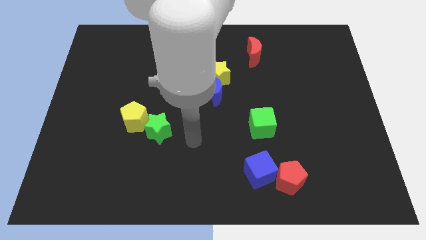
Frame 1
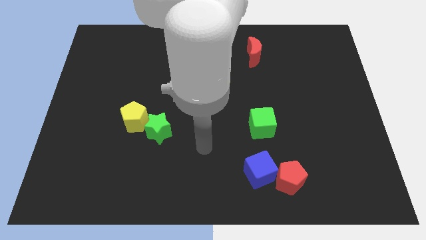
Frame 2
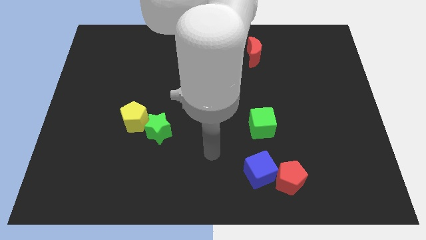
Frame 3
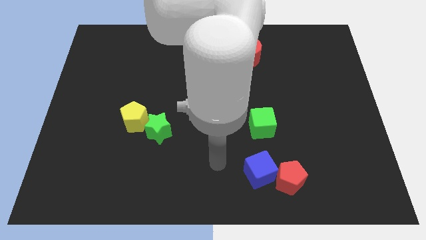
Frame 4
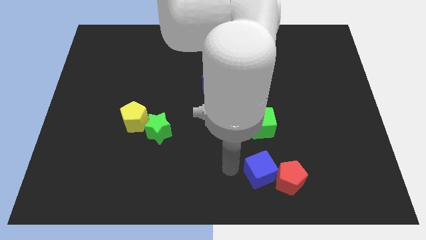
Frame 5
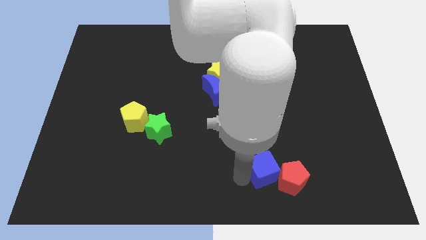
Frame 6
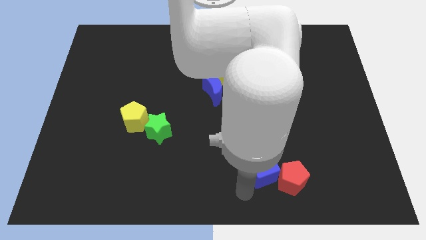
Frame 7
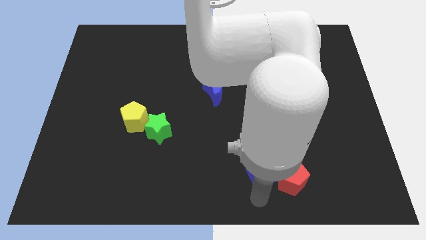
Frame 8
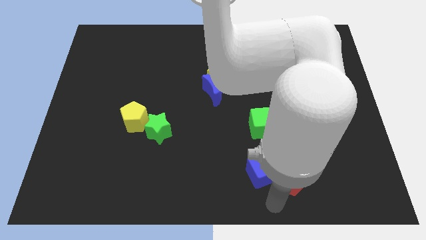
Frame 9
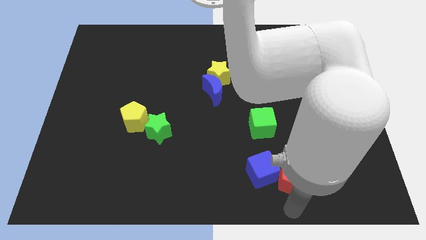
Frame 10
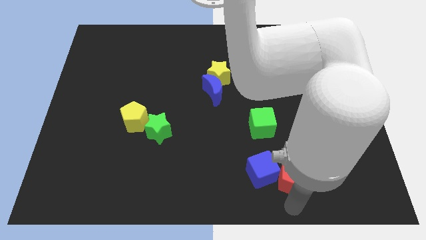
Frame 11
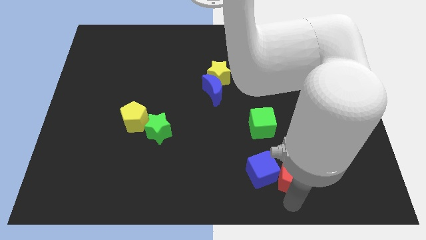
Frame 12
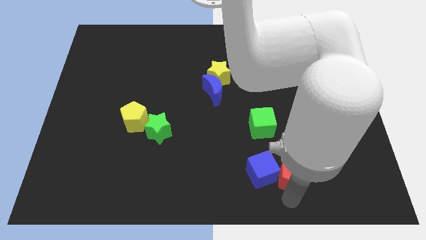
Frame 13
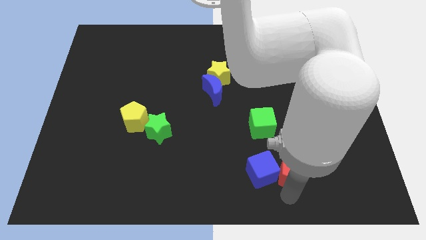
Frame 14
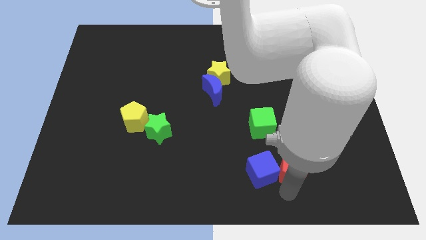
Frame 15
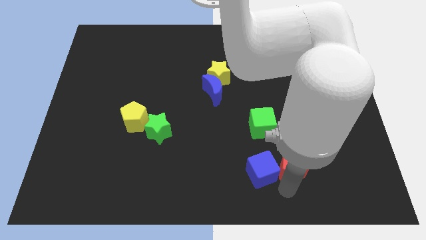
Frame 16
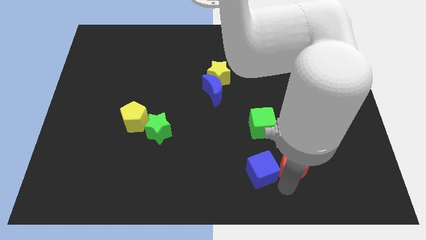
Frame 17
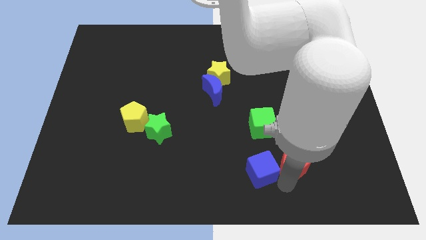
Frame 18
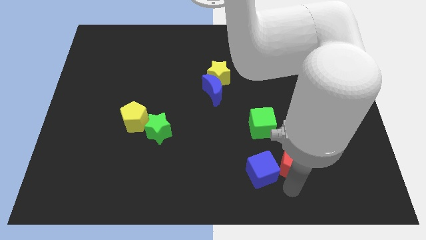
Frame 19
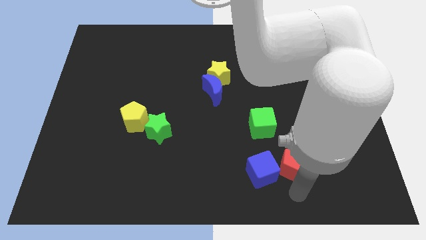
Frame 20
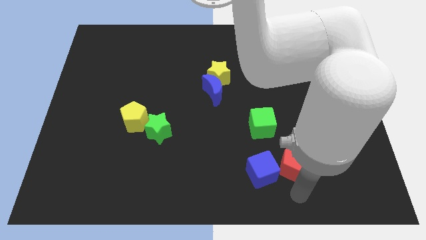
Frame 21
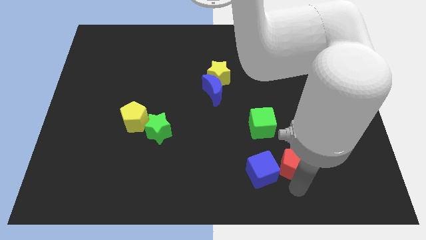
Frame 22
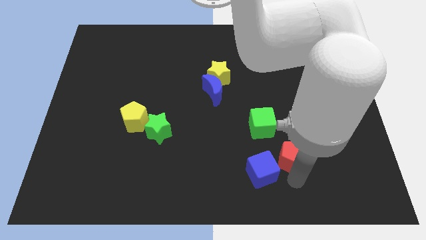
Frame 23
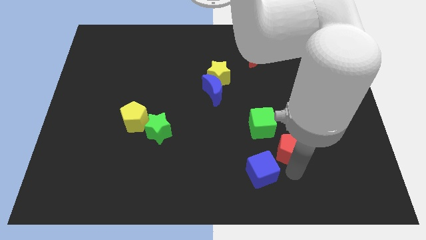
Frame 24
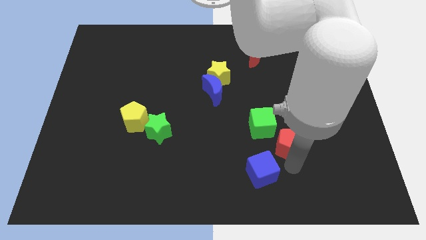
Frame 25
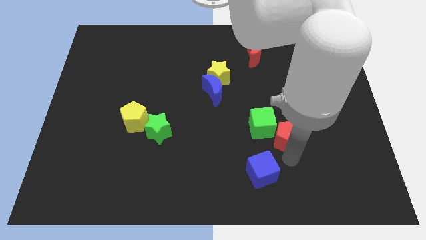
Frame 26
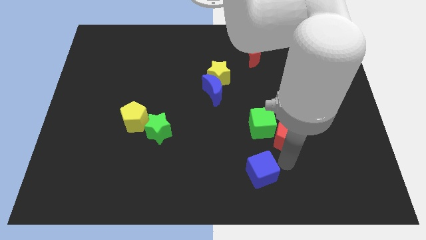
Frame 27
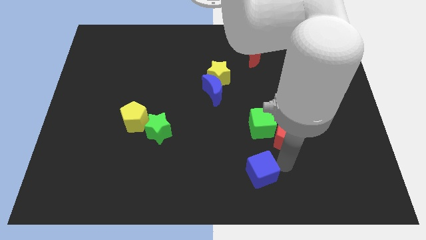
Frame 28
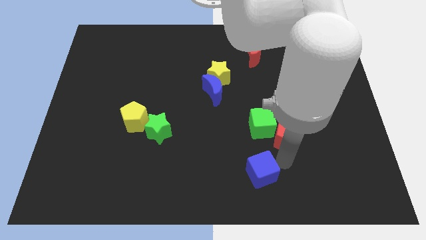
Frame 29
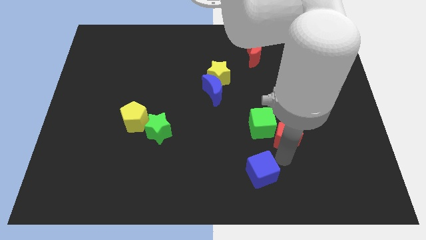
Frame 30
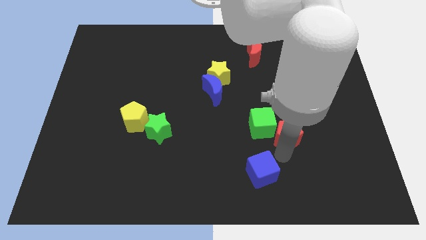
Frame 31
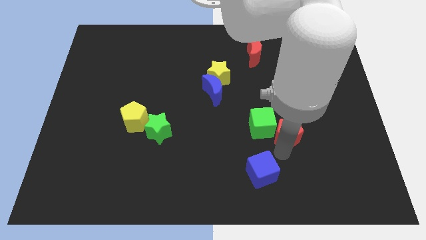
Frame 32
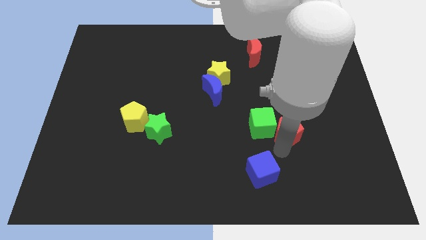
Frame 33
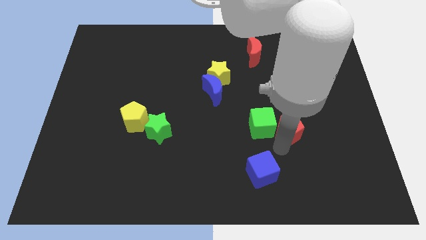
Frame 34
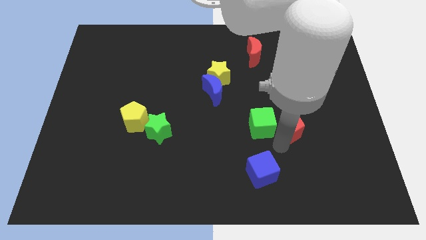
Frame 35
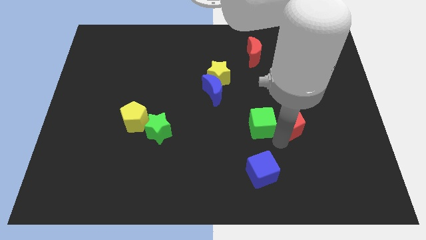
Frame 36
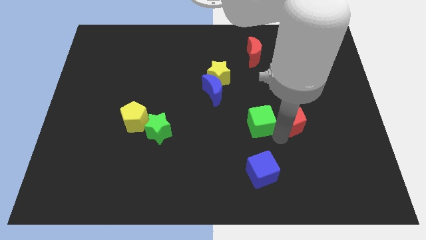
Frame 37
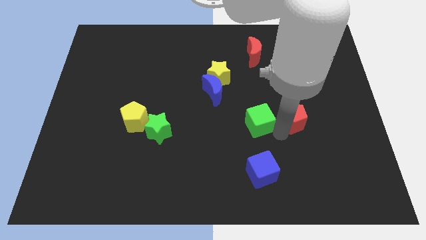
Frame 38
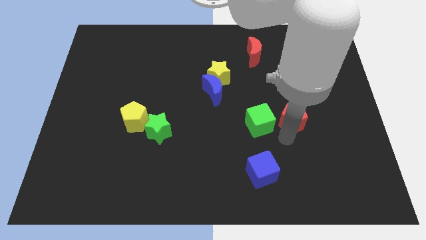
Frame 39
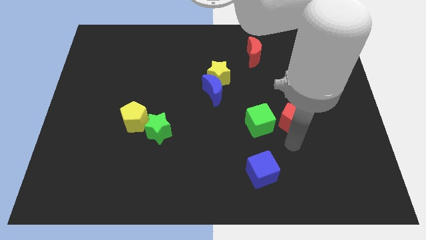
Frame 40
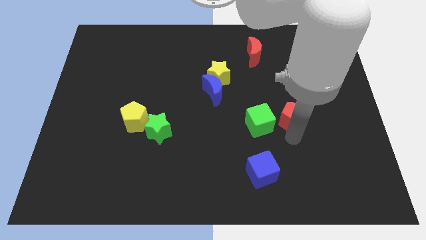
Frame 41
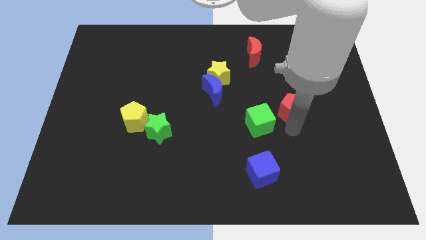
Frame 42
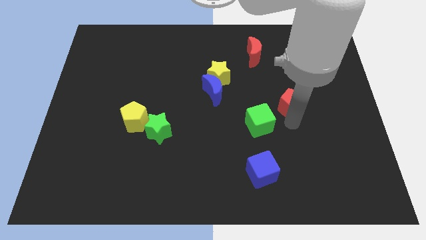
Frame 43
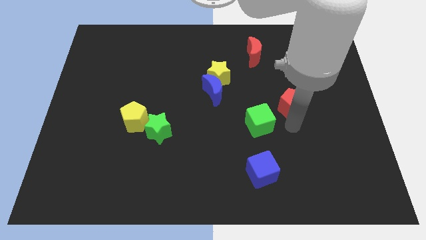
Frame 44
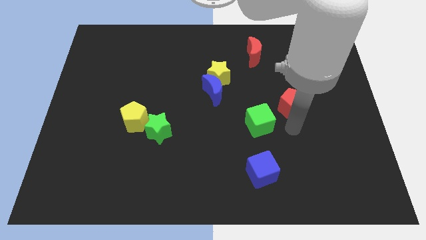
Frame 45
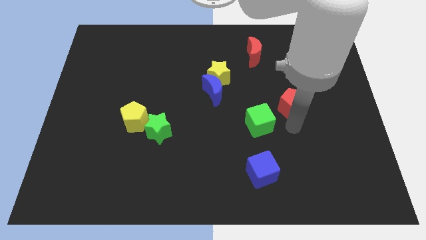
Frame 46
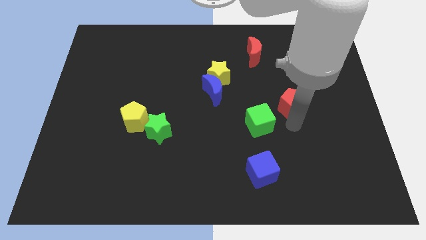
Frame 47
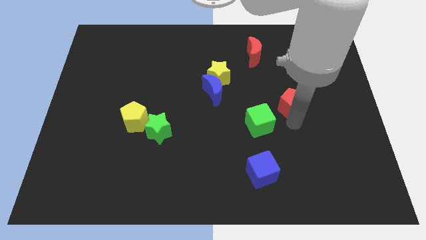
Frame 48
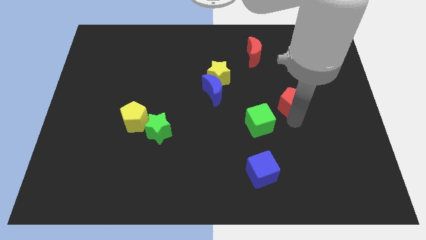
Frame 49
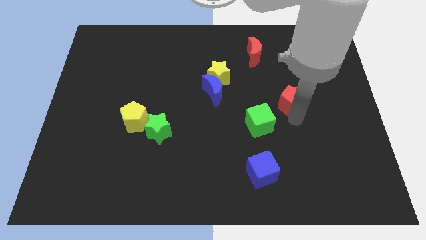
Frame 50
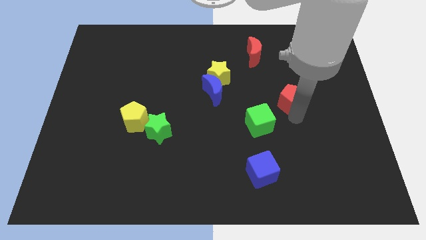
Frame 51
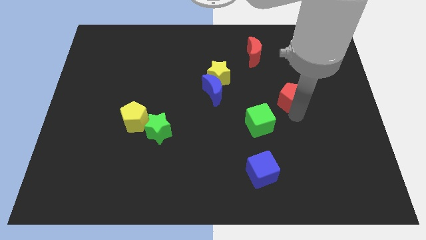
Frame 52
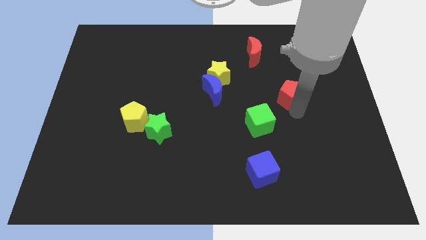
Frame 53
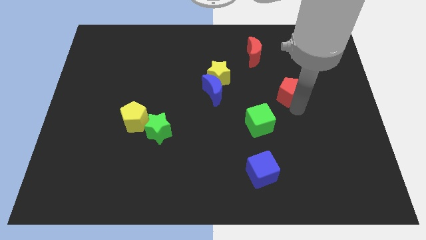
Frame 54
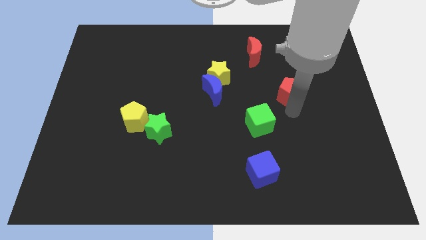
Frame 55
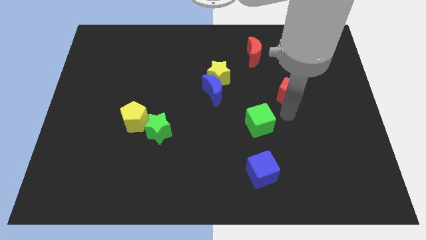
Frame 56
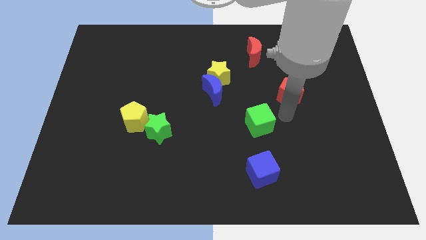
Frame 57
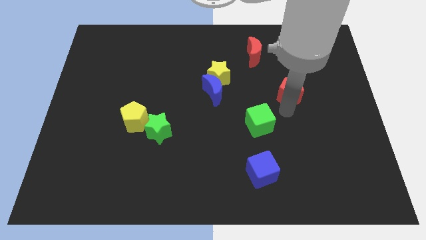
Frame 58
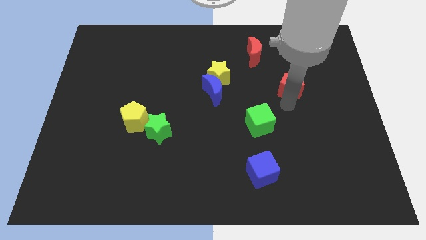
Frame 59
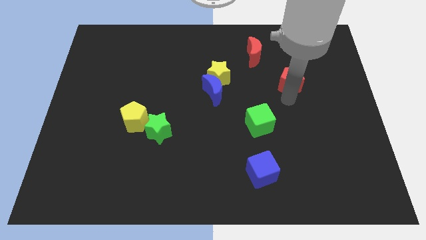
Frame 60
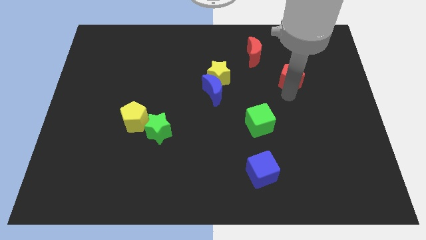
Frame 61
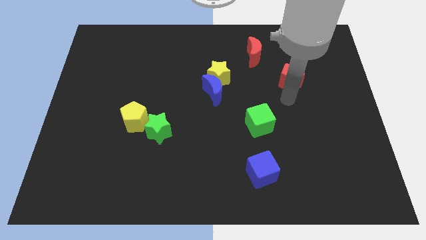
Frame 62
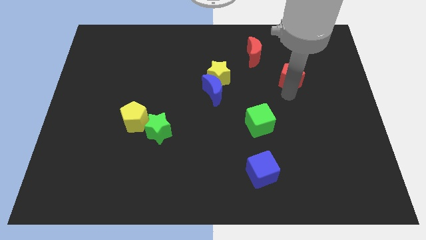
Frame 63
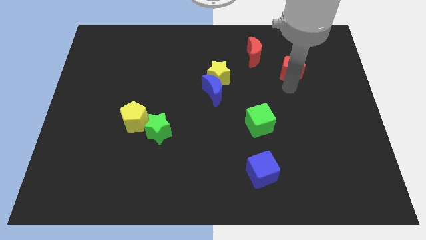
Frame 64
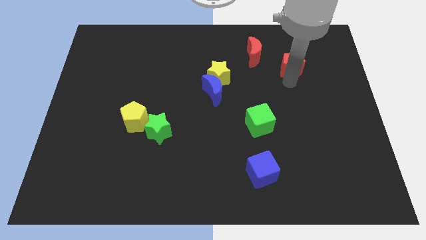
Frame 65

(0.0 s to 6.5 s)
slide the red pentagon to the right of the red moon

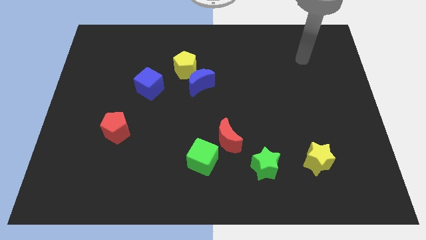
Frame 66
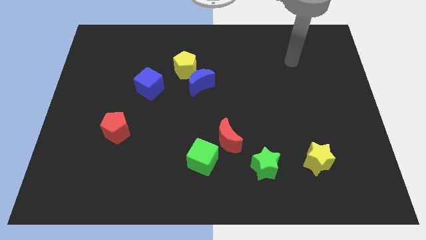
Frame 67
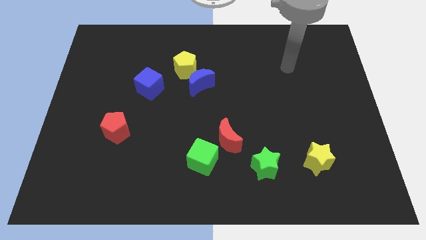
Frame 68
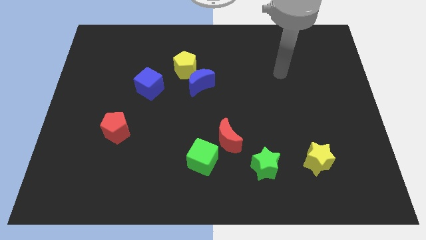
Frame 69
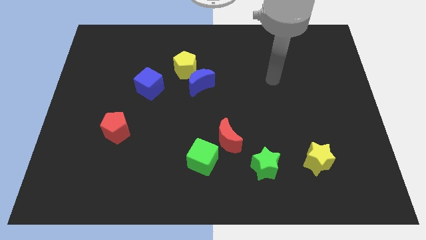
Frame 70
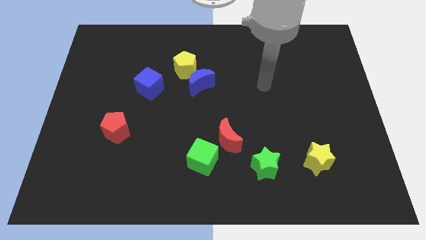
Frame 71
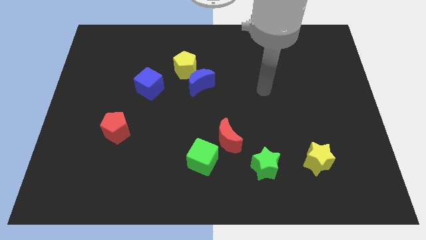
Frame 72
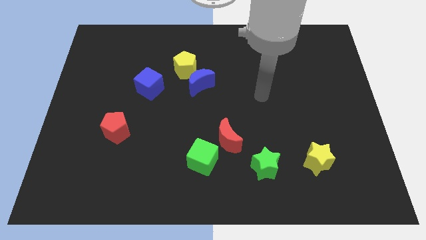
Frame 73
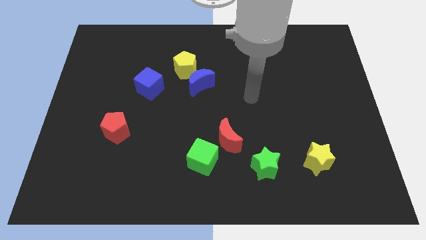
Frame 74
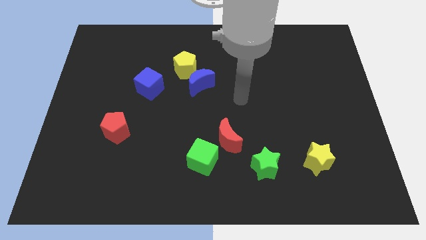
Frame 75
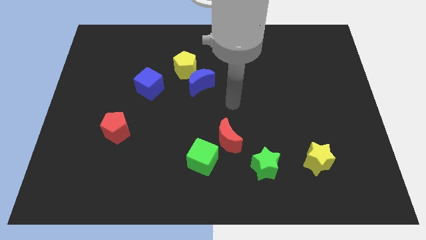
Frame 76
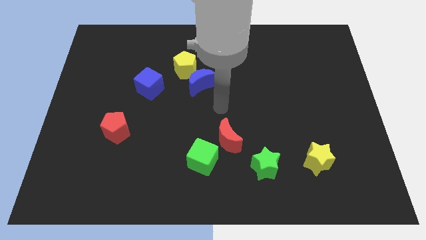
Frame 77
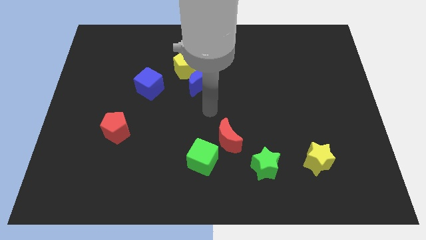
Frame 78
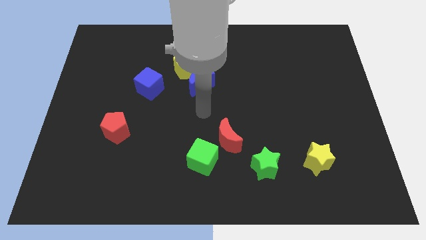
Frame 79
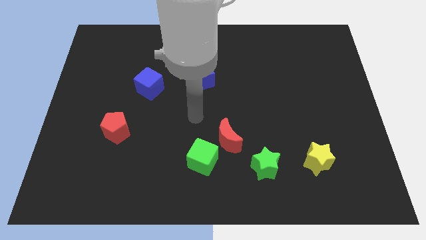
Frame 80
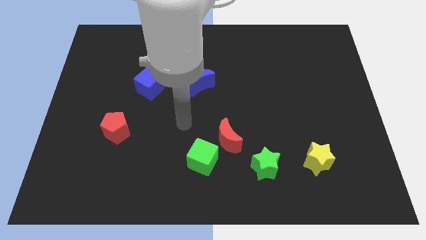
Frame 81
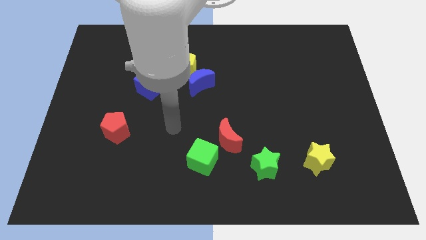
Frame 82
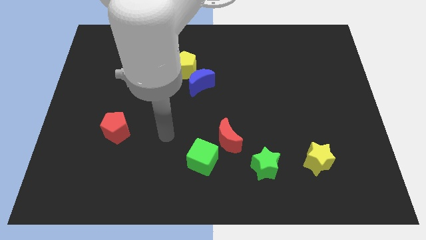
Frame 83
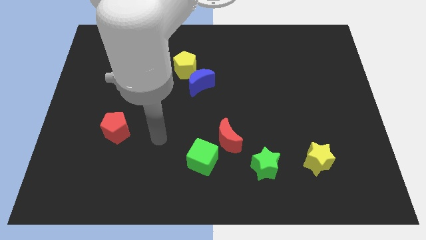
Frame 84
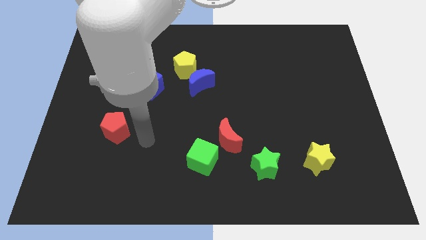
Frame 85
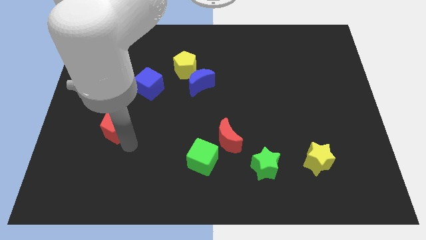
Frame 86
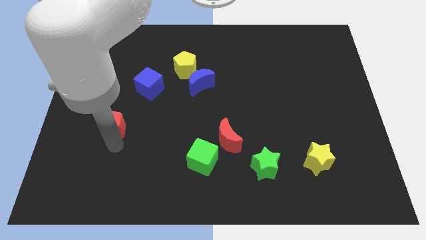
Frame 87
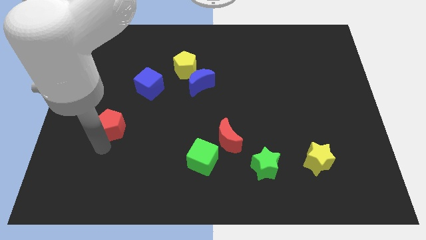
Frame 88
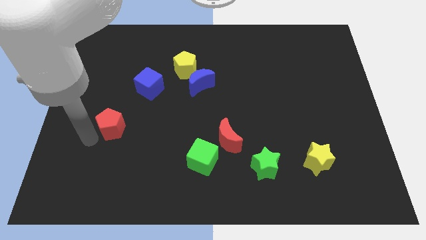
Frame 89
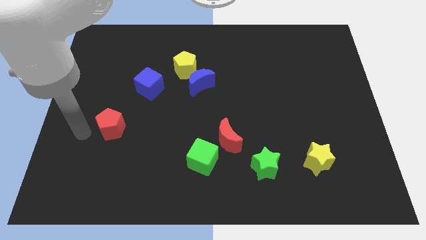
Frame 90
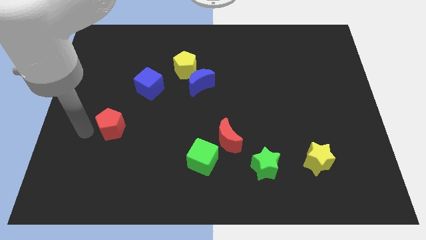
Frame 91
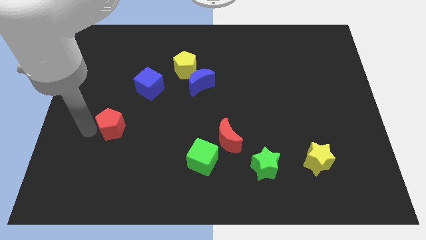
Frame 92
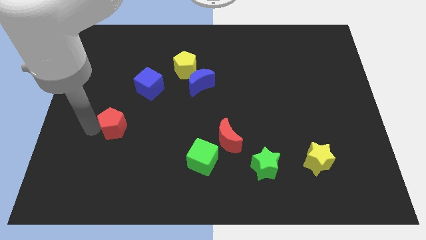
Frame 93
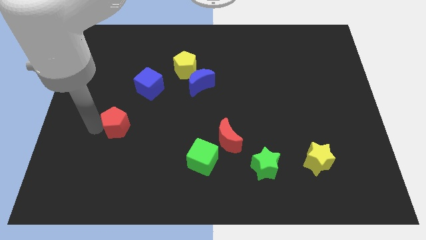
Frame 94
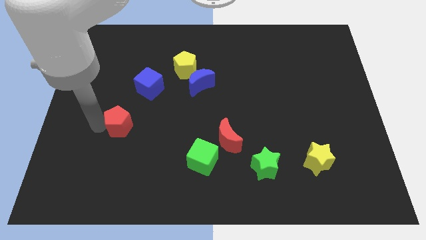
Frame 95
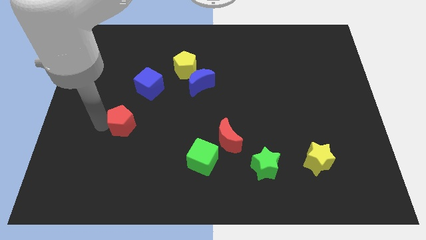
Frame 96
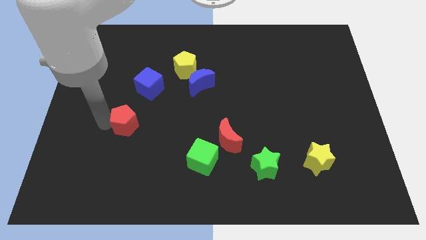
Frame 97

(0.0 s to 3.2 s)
push the red pentagon to the bottom of the blue cube
